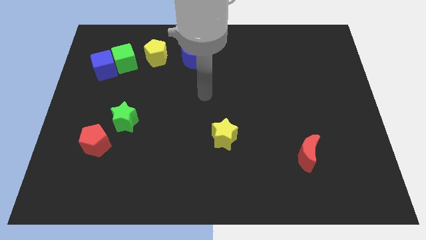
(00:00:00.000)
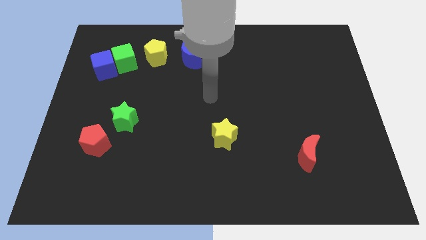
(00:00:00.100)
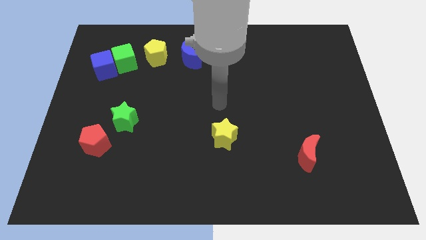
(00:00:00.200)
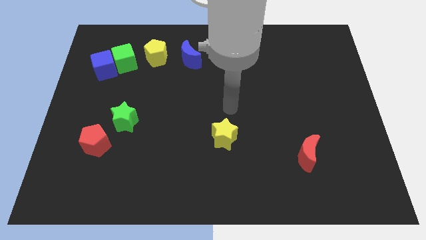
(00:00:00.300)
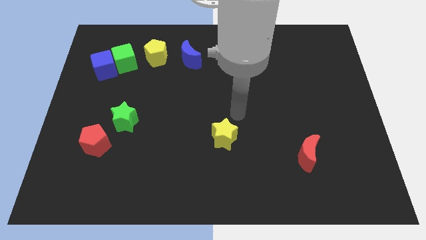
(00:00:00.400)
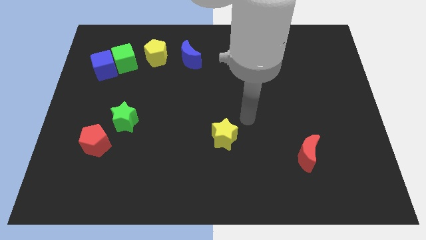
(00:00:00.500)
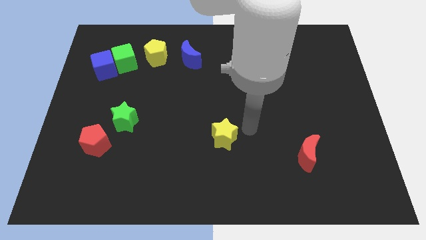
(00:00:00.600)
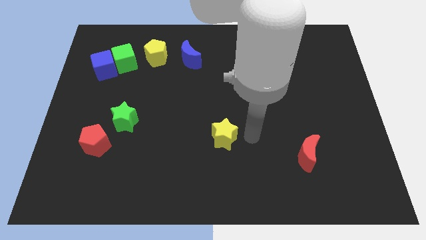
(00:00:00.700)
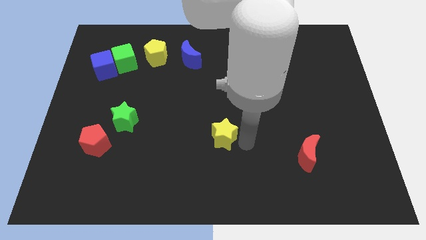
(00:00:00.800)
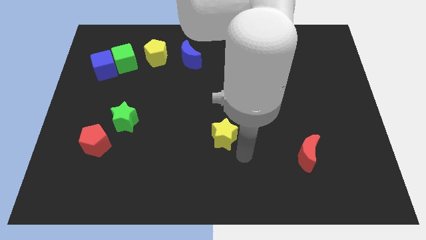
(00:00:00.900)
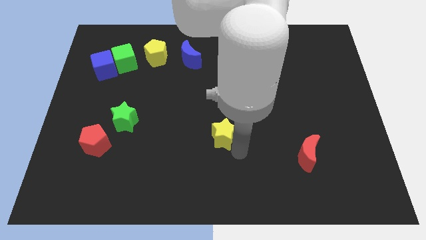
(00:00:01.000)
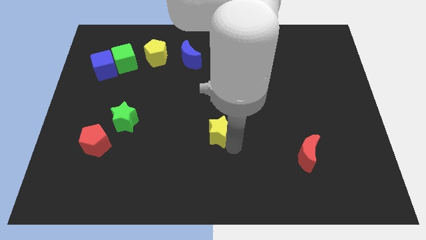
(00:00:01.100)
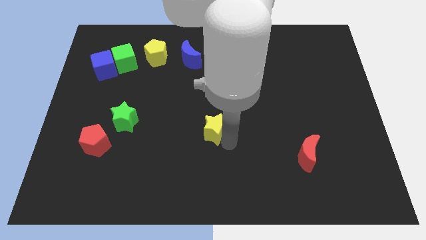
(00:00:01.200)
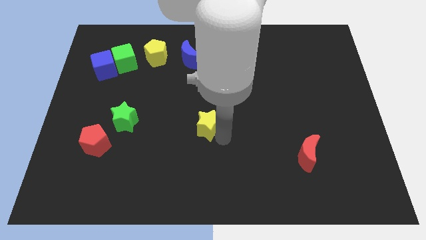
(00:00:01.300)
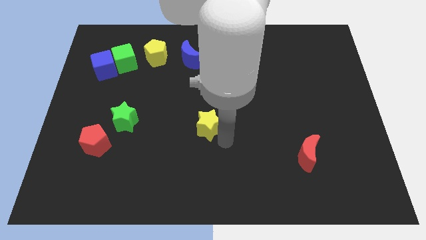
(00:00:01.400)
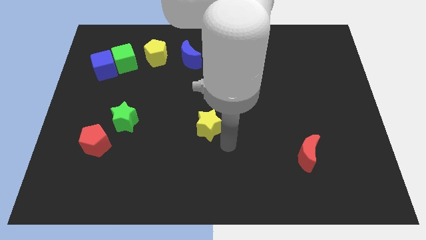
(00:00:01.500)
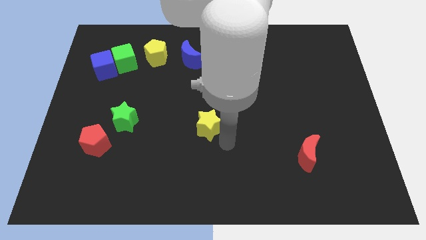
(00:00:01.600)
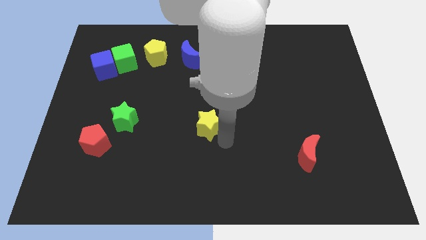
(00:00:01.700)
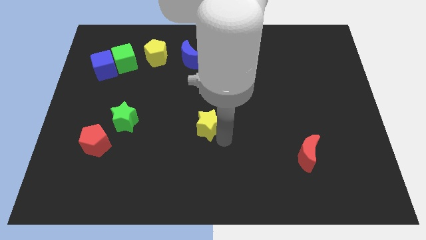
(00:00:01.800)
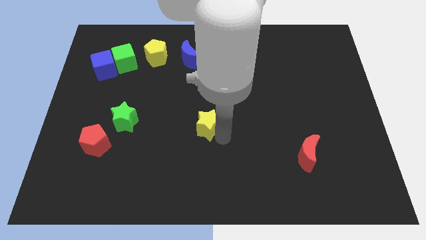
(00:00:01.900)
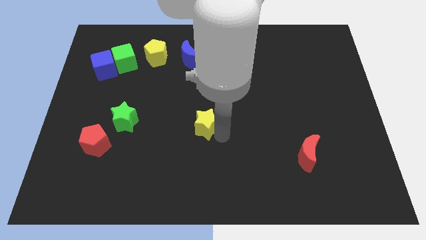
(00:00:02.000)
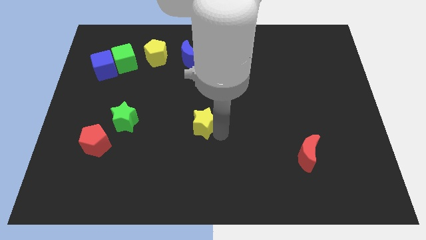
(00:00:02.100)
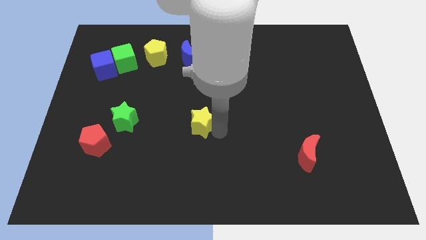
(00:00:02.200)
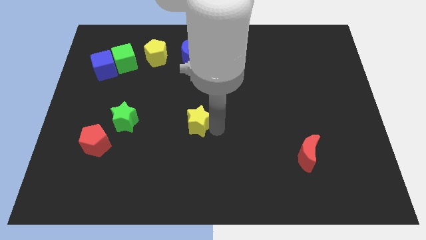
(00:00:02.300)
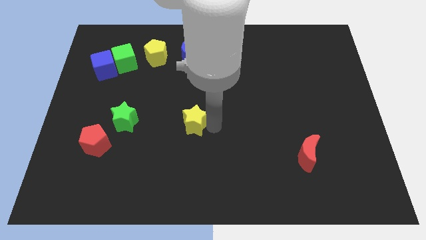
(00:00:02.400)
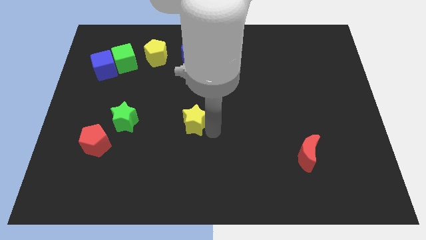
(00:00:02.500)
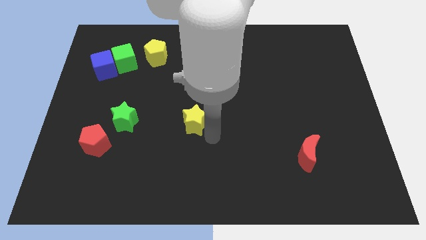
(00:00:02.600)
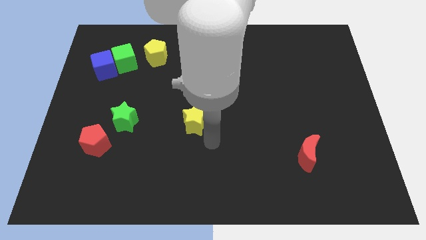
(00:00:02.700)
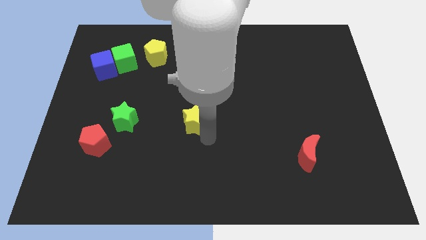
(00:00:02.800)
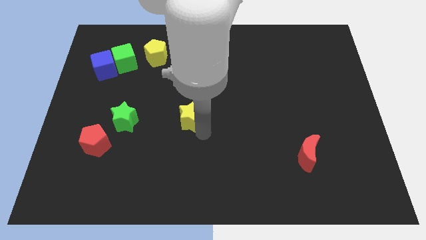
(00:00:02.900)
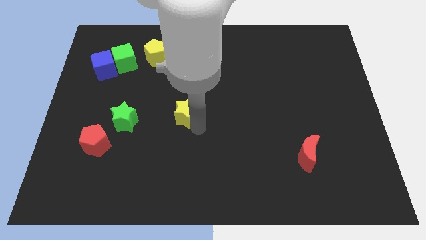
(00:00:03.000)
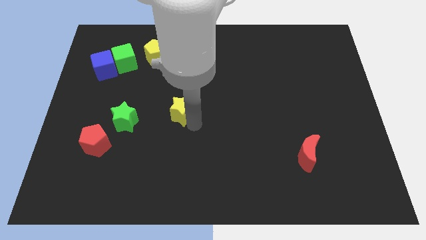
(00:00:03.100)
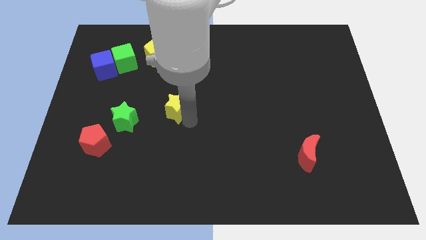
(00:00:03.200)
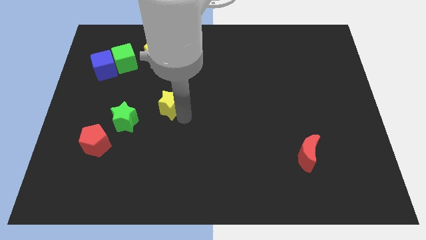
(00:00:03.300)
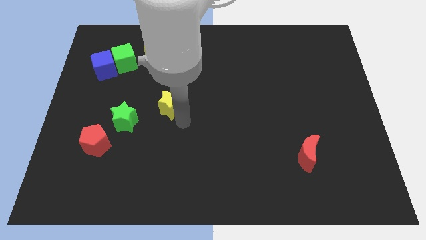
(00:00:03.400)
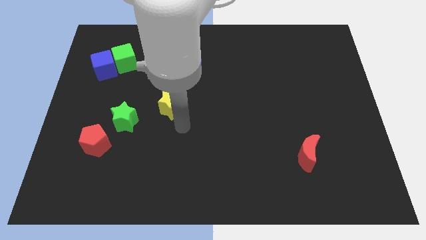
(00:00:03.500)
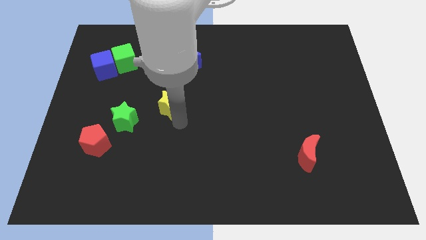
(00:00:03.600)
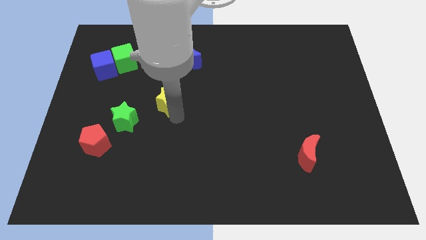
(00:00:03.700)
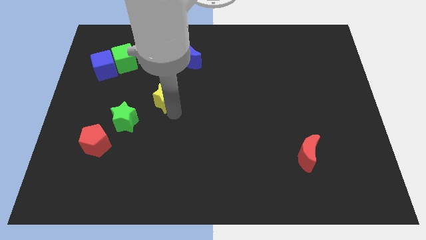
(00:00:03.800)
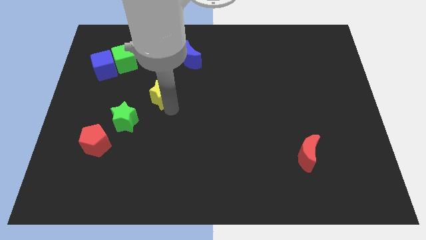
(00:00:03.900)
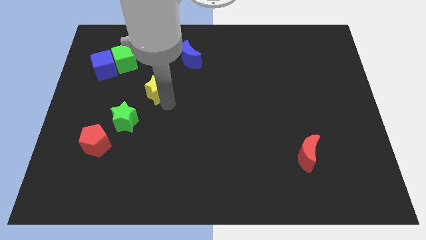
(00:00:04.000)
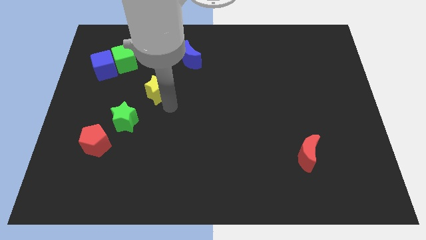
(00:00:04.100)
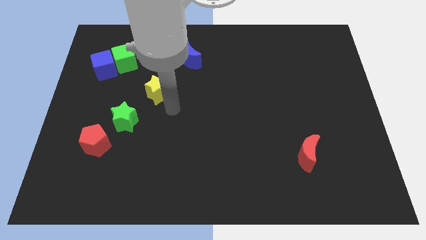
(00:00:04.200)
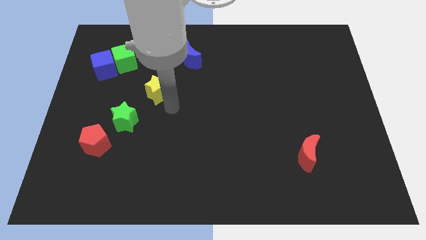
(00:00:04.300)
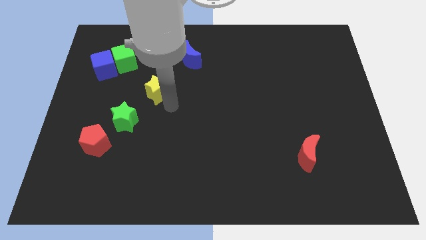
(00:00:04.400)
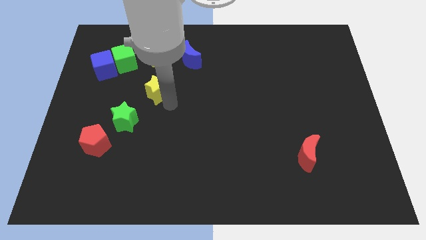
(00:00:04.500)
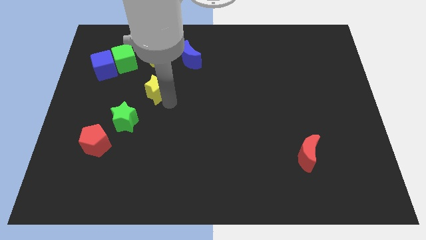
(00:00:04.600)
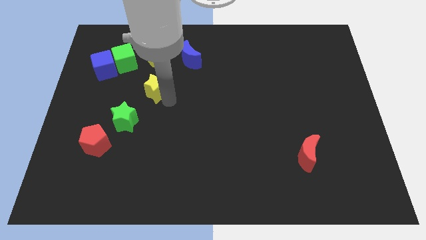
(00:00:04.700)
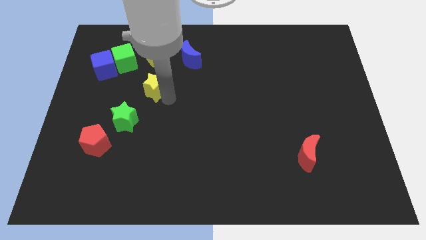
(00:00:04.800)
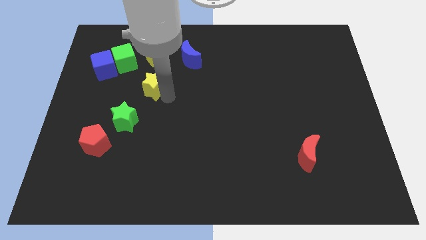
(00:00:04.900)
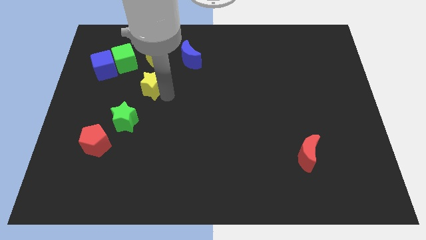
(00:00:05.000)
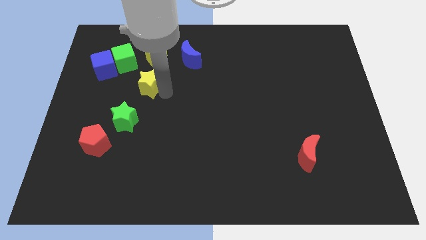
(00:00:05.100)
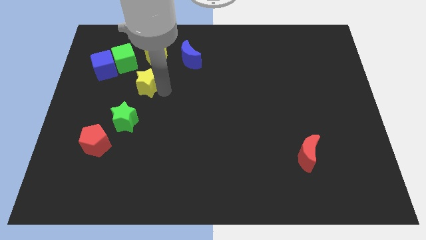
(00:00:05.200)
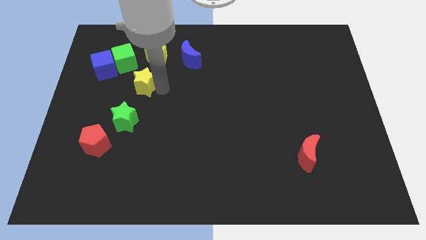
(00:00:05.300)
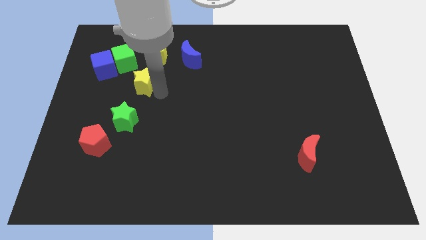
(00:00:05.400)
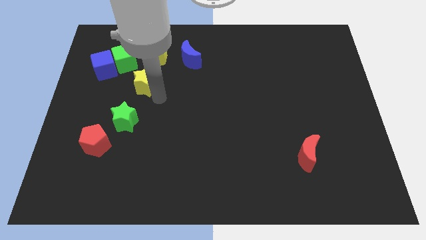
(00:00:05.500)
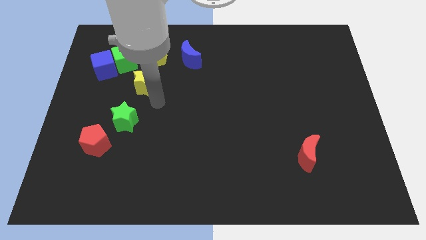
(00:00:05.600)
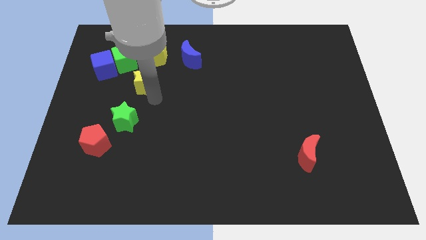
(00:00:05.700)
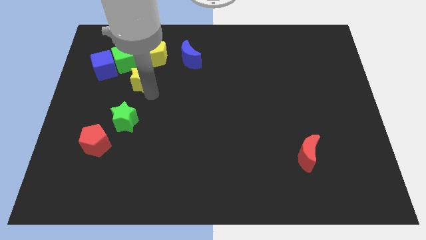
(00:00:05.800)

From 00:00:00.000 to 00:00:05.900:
push the yellow star to the bottom left side of the yellow pentagon

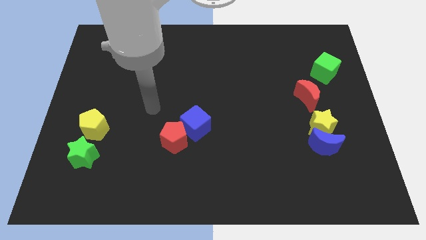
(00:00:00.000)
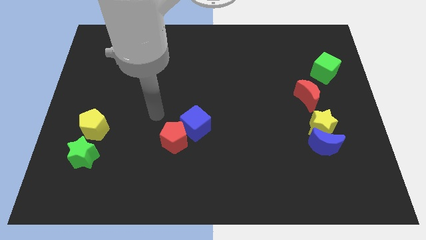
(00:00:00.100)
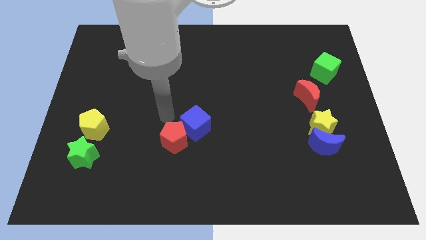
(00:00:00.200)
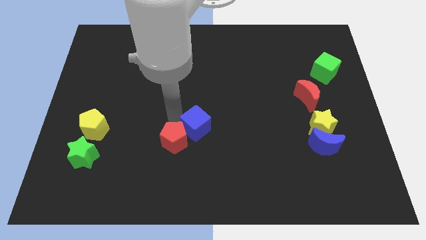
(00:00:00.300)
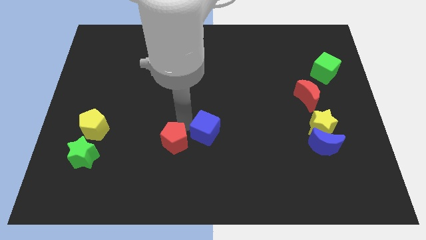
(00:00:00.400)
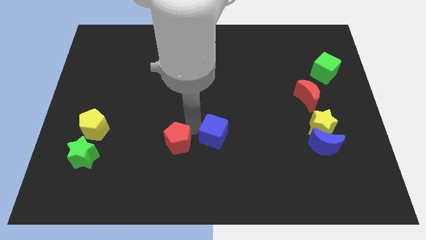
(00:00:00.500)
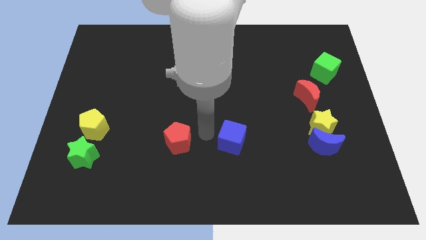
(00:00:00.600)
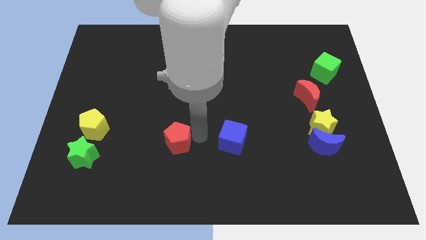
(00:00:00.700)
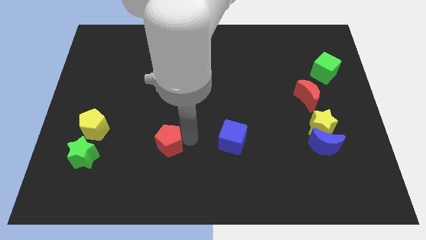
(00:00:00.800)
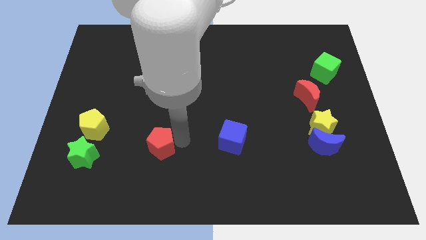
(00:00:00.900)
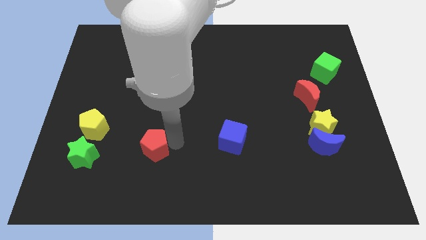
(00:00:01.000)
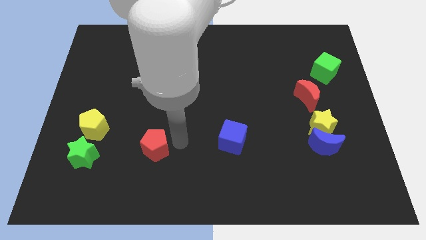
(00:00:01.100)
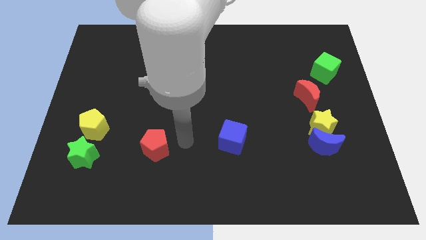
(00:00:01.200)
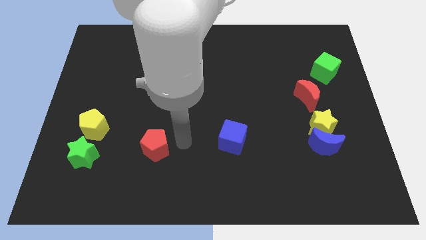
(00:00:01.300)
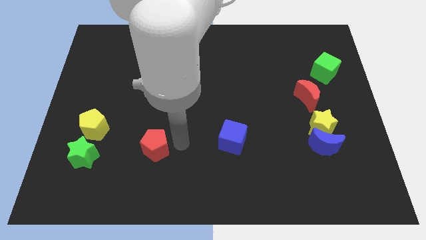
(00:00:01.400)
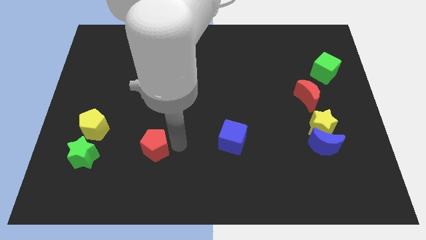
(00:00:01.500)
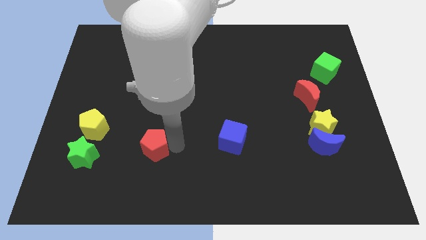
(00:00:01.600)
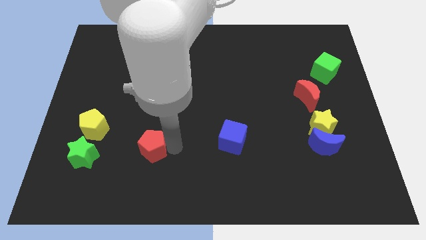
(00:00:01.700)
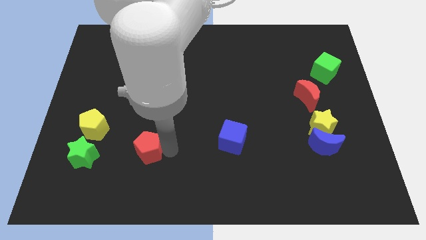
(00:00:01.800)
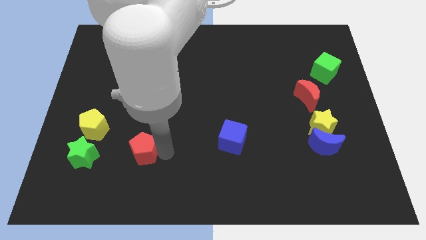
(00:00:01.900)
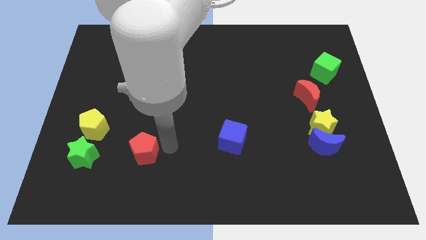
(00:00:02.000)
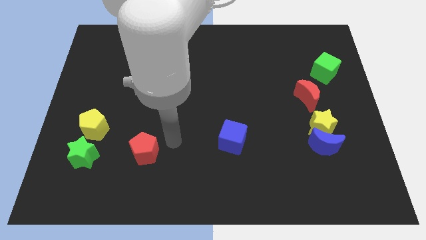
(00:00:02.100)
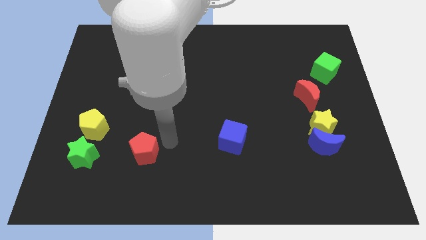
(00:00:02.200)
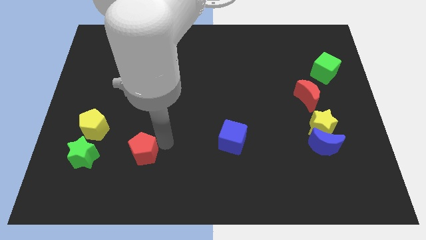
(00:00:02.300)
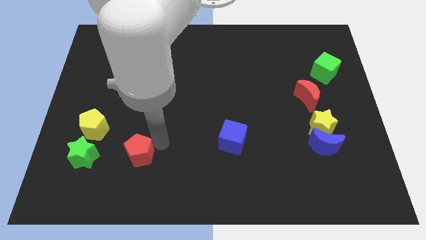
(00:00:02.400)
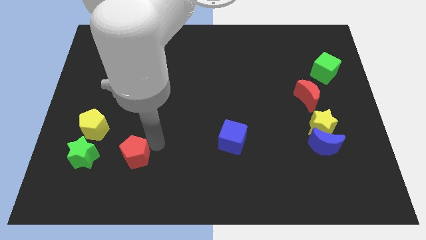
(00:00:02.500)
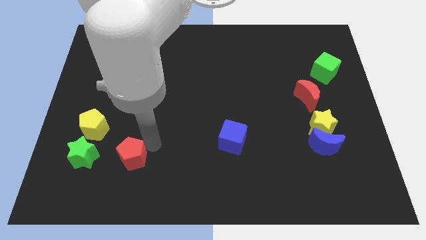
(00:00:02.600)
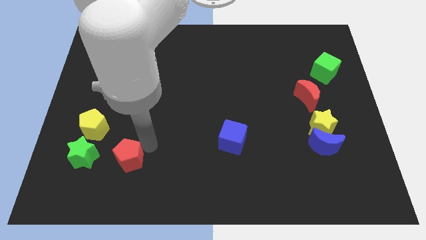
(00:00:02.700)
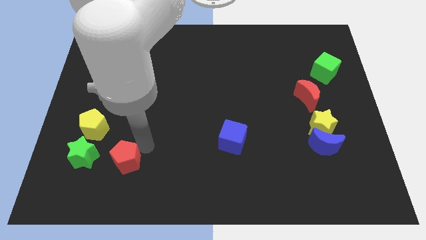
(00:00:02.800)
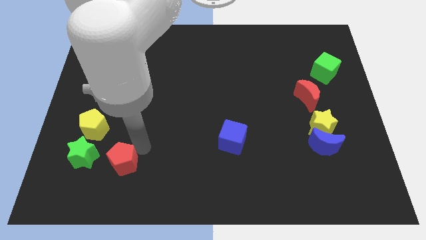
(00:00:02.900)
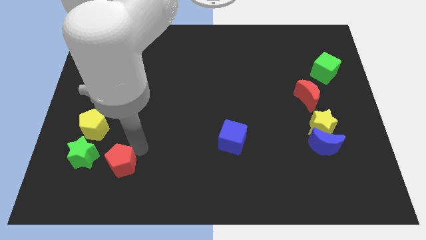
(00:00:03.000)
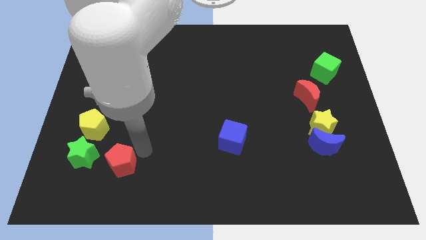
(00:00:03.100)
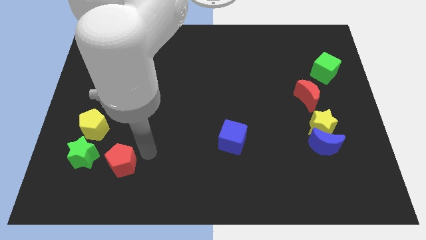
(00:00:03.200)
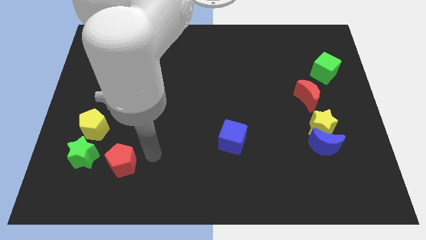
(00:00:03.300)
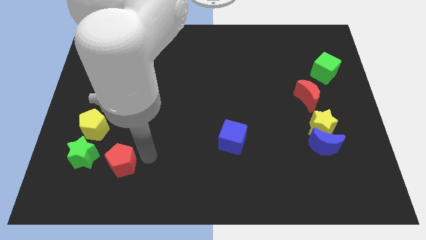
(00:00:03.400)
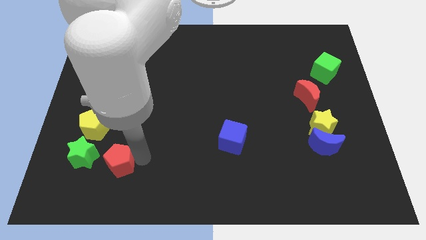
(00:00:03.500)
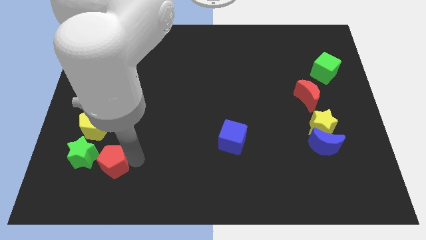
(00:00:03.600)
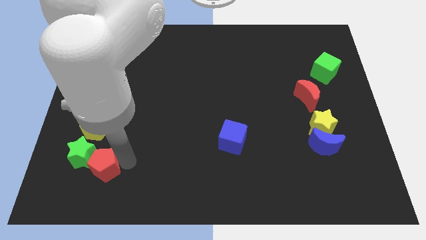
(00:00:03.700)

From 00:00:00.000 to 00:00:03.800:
move the red pentagon to the bottom of the yellow pentagon
